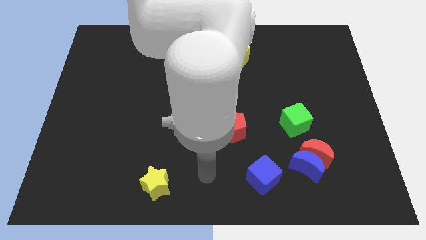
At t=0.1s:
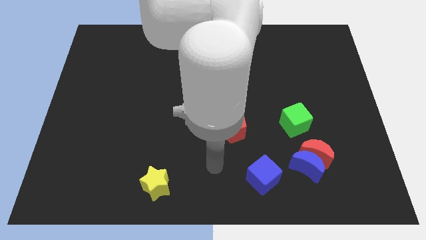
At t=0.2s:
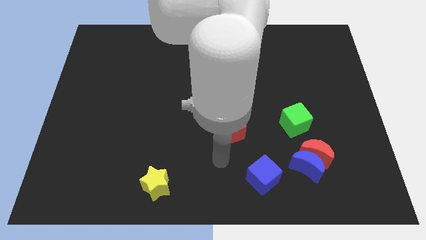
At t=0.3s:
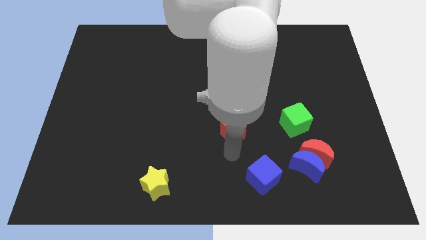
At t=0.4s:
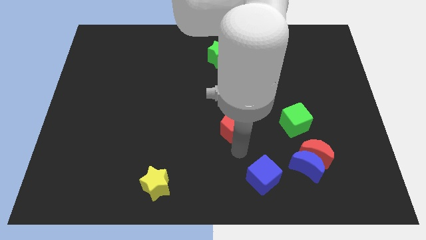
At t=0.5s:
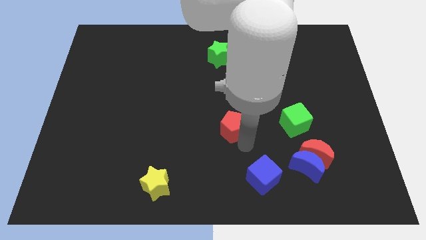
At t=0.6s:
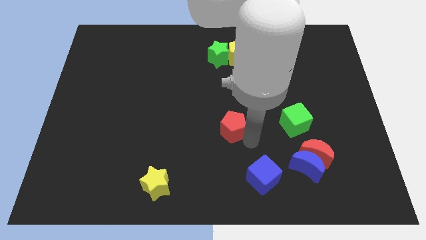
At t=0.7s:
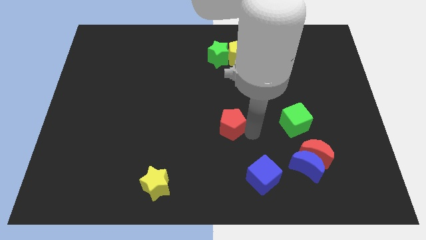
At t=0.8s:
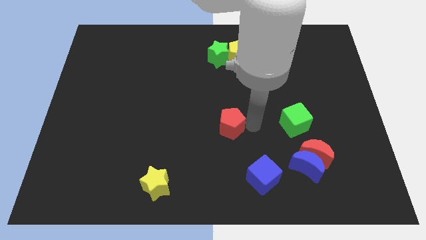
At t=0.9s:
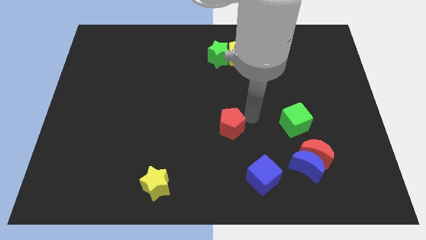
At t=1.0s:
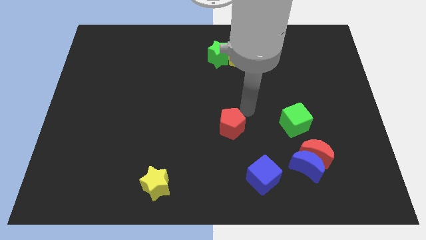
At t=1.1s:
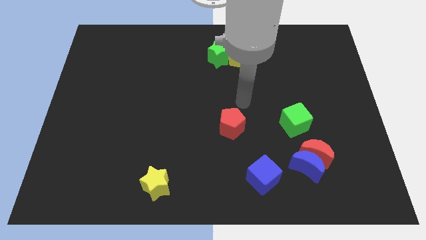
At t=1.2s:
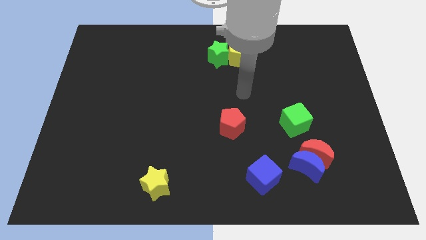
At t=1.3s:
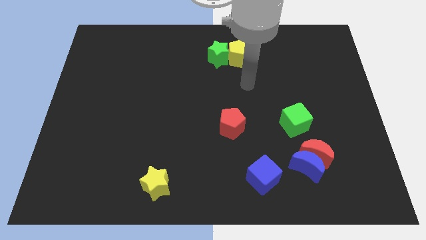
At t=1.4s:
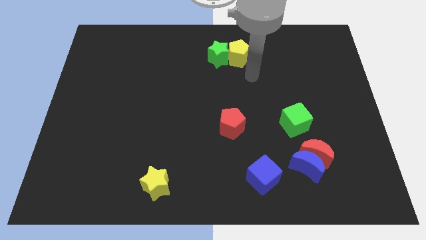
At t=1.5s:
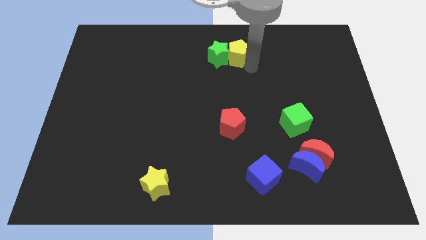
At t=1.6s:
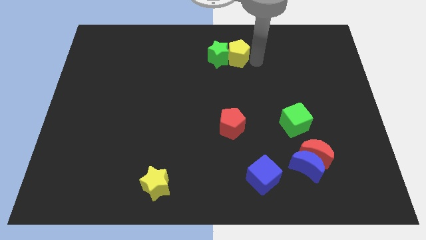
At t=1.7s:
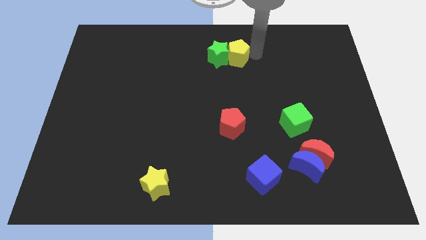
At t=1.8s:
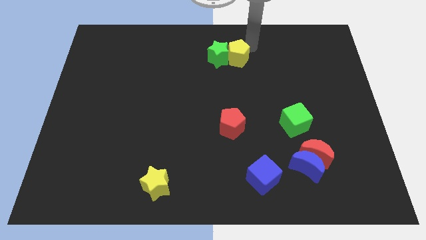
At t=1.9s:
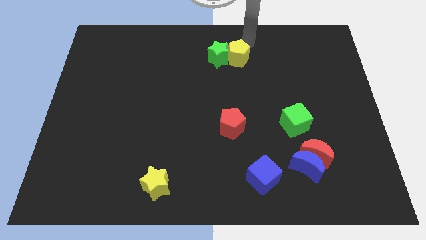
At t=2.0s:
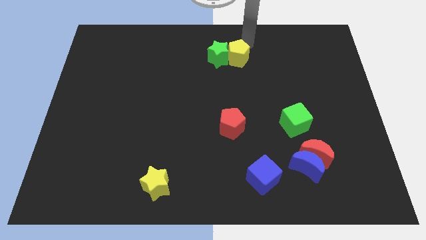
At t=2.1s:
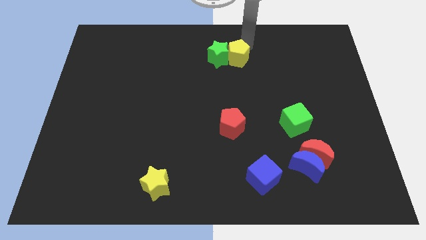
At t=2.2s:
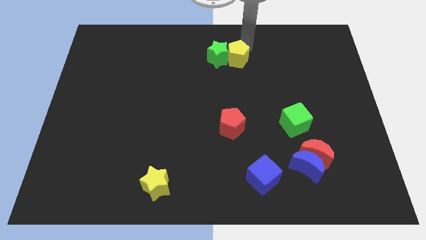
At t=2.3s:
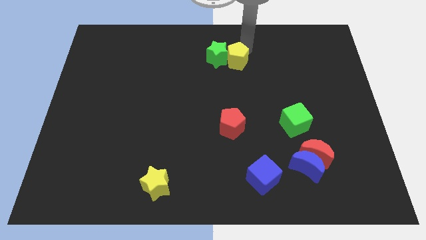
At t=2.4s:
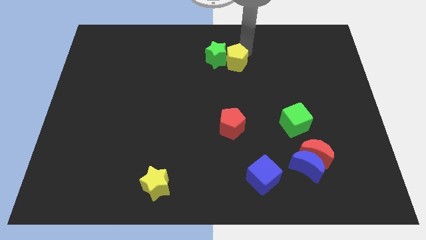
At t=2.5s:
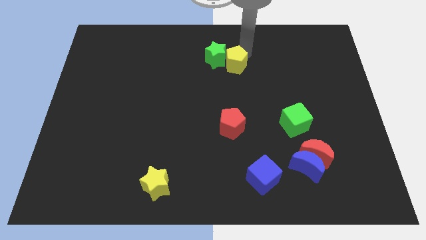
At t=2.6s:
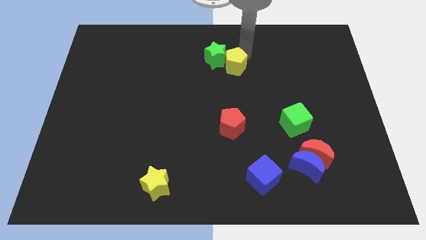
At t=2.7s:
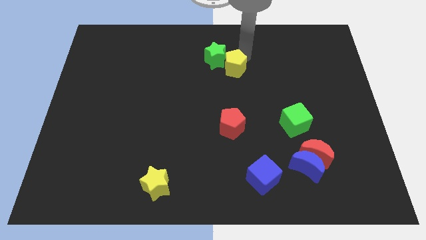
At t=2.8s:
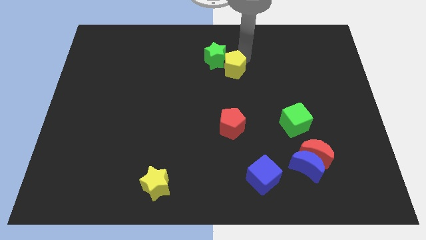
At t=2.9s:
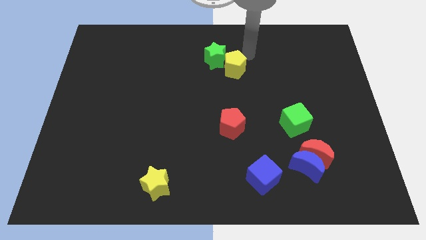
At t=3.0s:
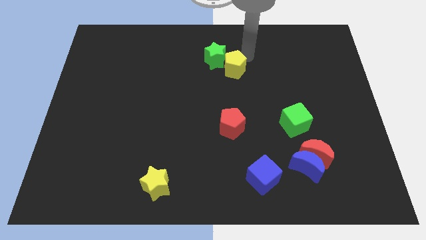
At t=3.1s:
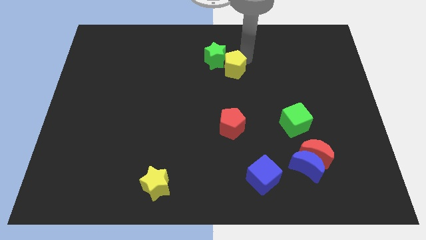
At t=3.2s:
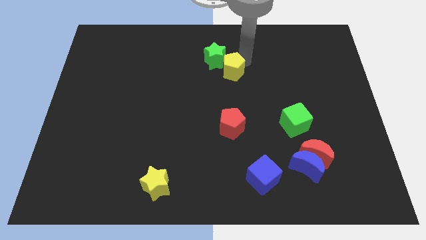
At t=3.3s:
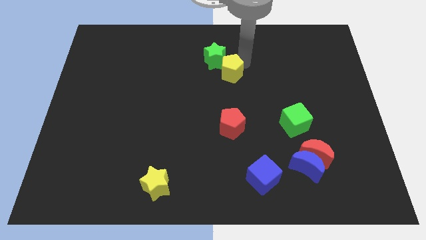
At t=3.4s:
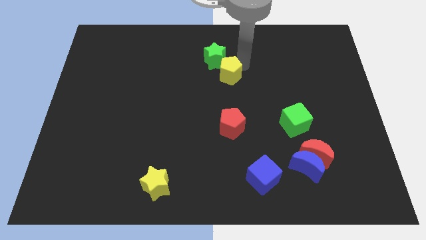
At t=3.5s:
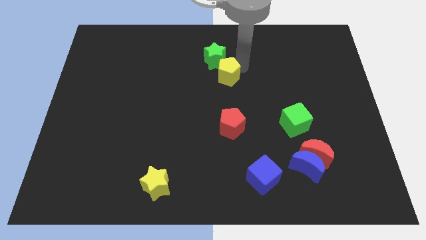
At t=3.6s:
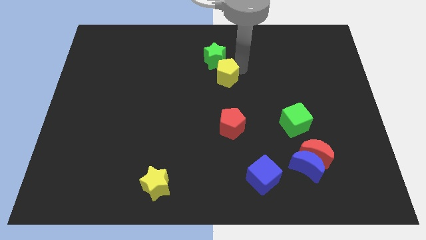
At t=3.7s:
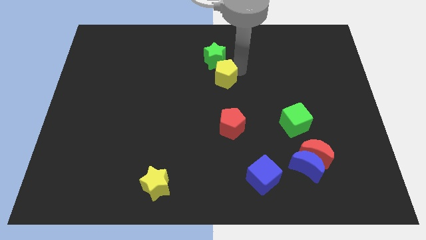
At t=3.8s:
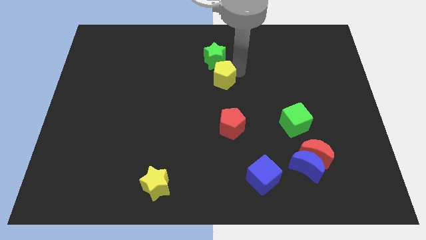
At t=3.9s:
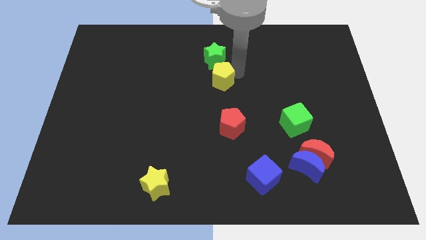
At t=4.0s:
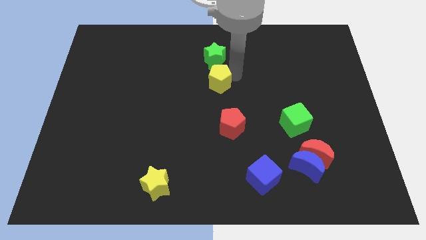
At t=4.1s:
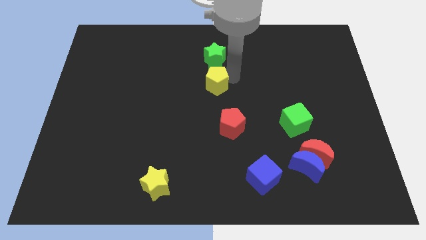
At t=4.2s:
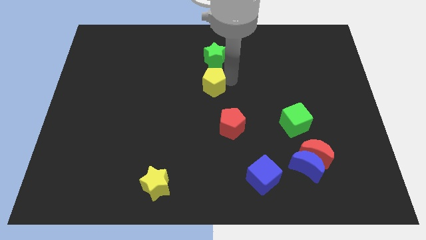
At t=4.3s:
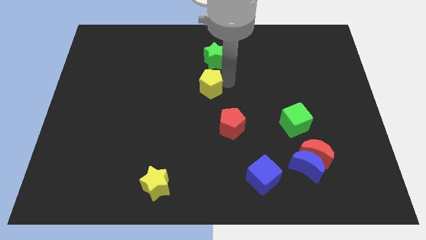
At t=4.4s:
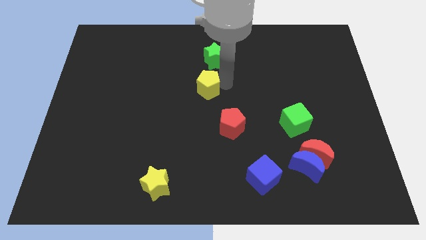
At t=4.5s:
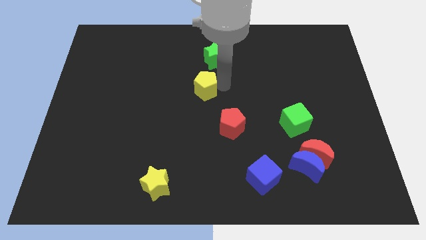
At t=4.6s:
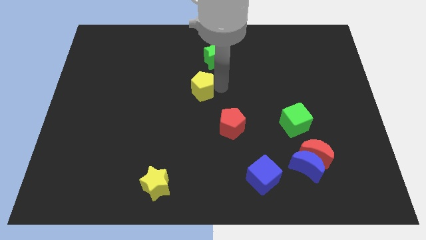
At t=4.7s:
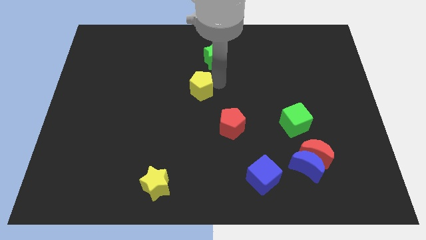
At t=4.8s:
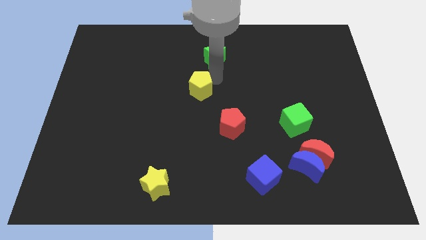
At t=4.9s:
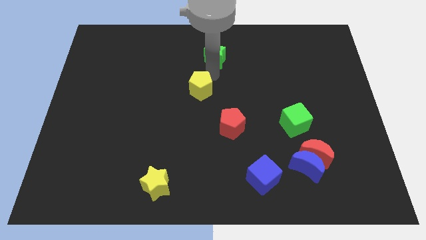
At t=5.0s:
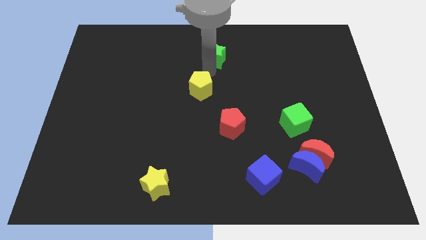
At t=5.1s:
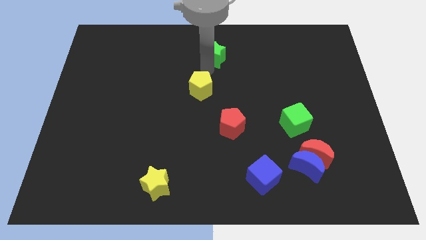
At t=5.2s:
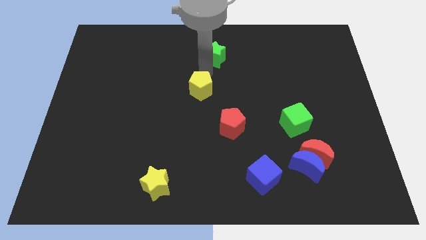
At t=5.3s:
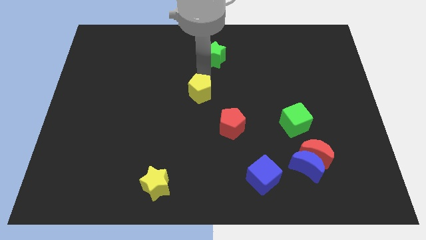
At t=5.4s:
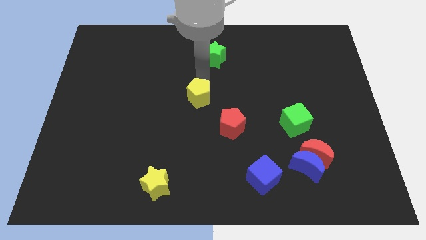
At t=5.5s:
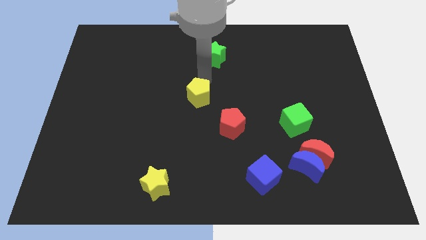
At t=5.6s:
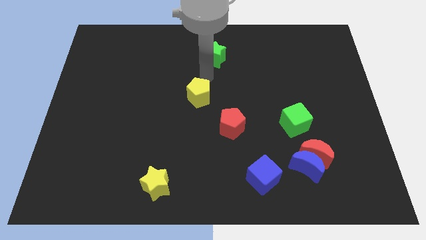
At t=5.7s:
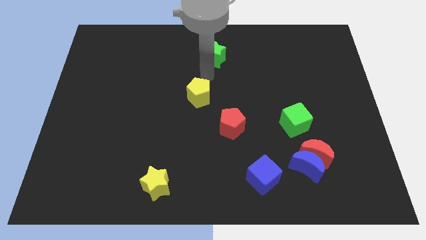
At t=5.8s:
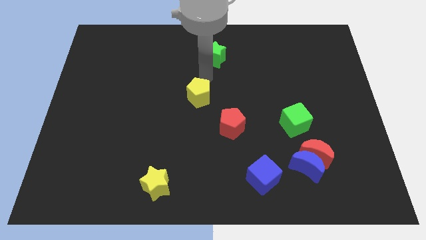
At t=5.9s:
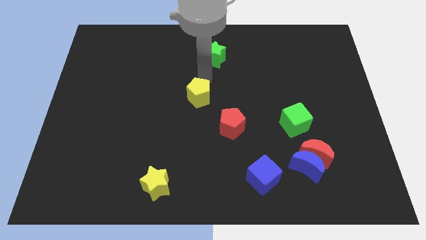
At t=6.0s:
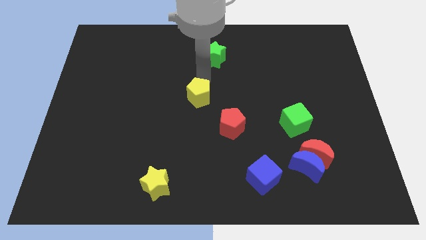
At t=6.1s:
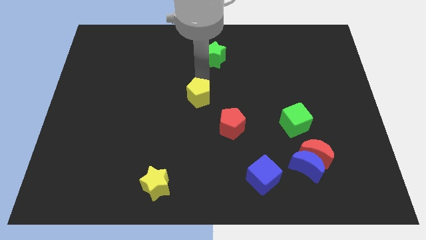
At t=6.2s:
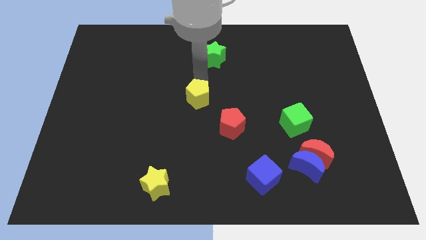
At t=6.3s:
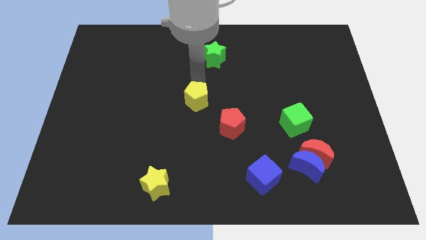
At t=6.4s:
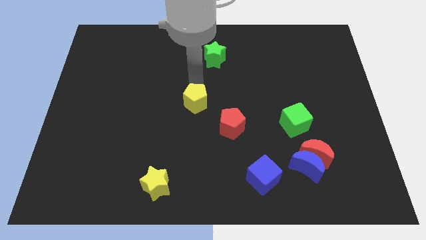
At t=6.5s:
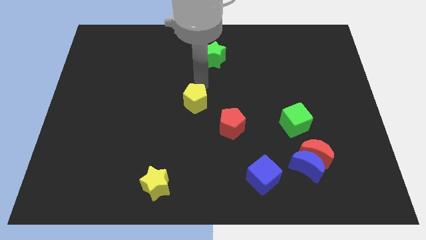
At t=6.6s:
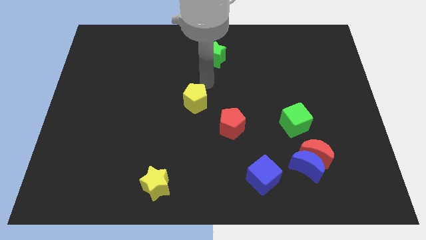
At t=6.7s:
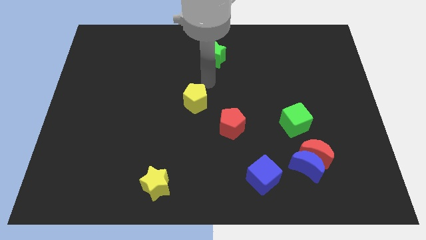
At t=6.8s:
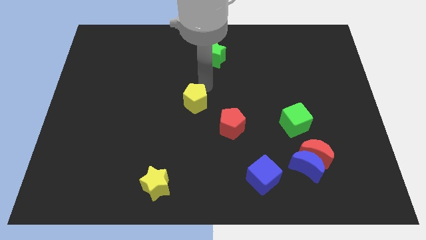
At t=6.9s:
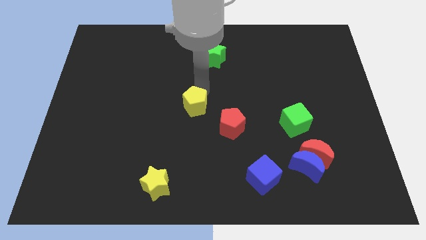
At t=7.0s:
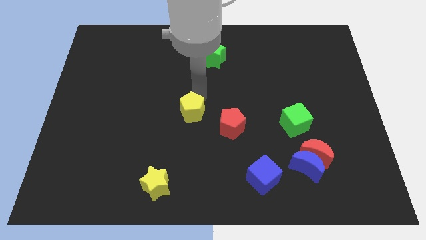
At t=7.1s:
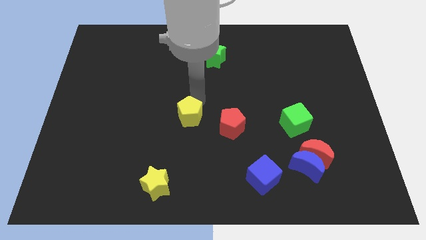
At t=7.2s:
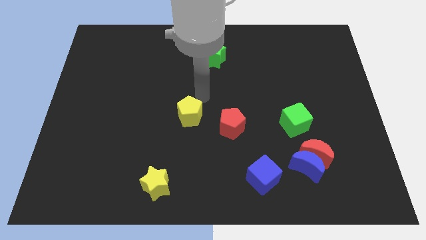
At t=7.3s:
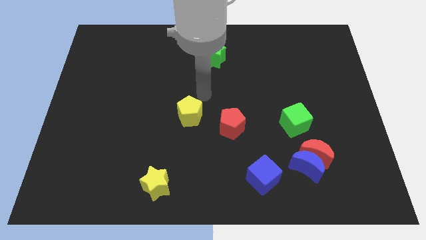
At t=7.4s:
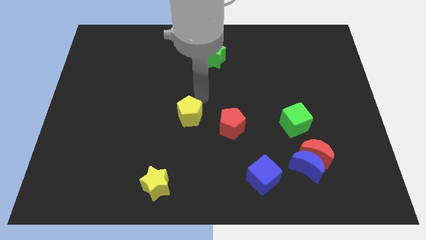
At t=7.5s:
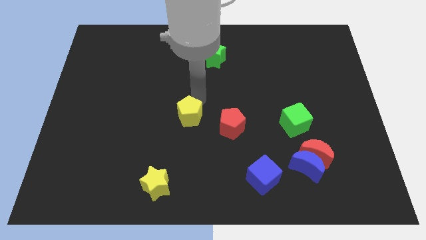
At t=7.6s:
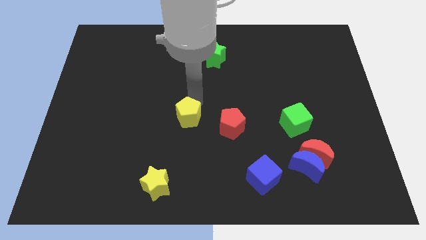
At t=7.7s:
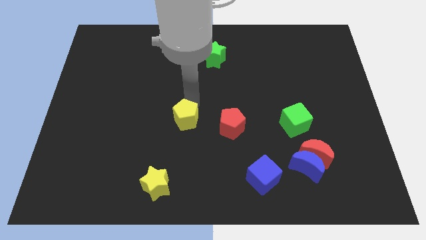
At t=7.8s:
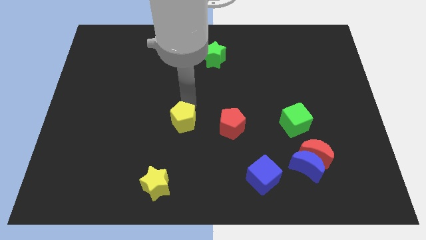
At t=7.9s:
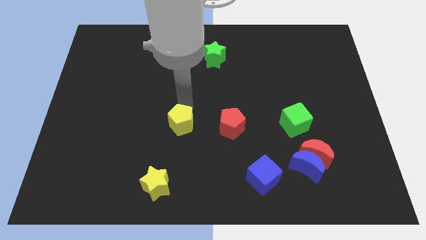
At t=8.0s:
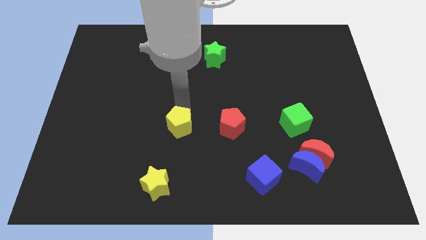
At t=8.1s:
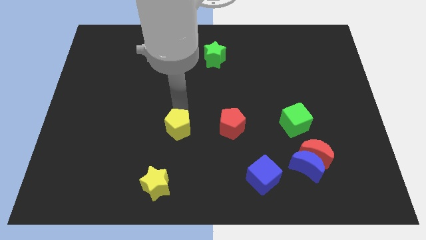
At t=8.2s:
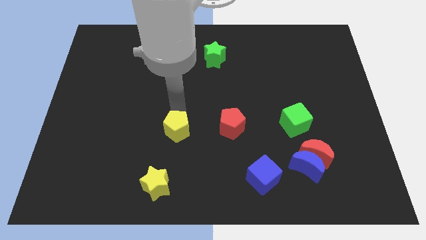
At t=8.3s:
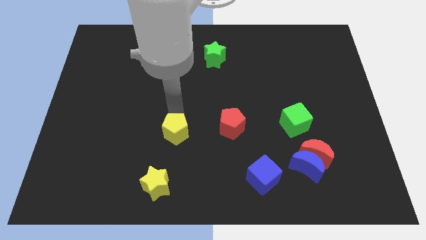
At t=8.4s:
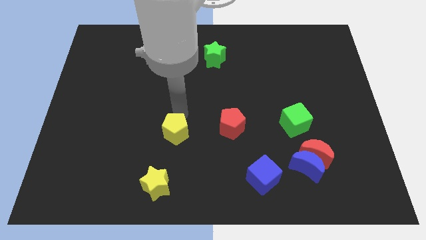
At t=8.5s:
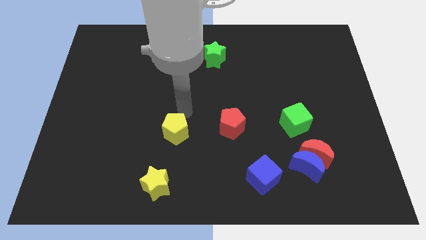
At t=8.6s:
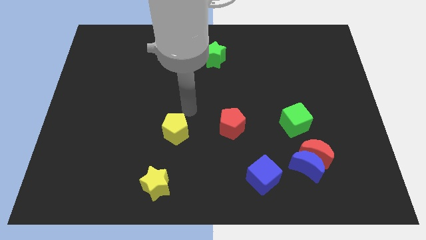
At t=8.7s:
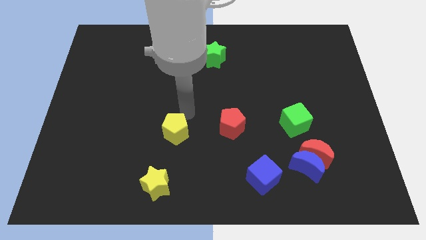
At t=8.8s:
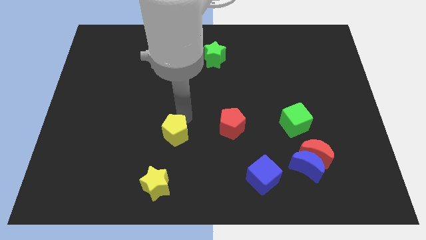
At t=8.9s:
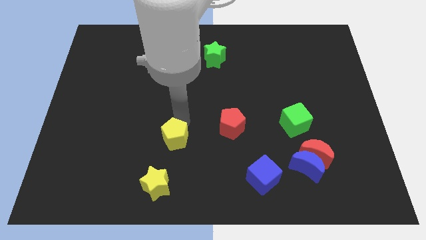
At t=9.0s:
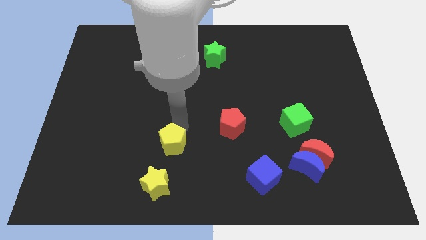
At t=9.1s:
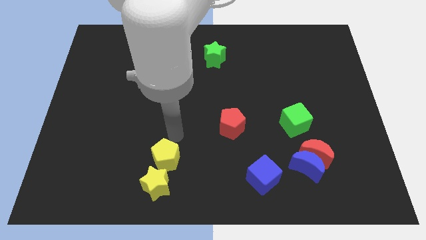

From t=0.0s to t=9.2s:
push the yellow pentagon next to the yellow star
